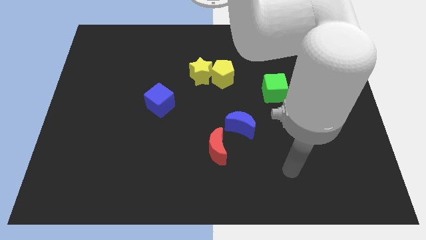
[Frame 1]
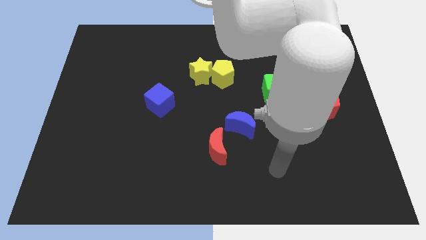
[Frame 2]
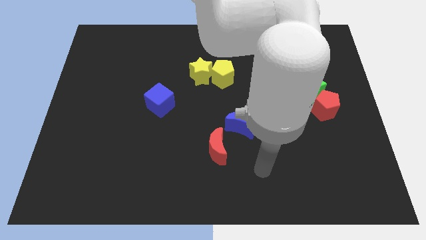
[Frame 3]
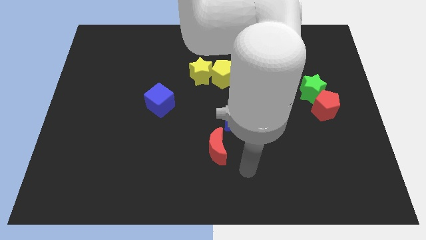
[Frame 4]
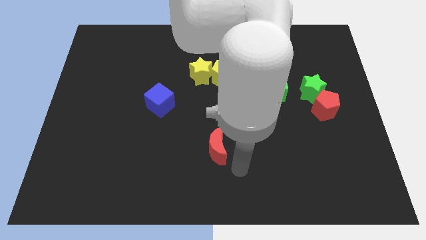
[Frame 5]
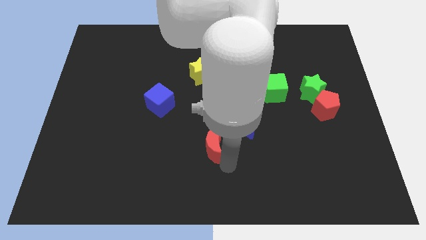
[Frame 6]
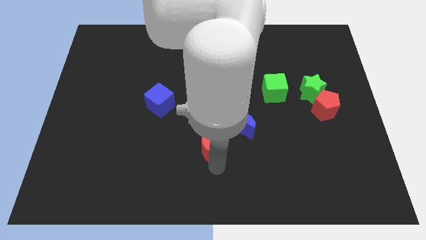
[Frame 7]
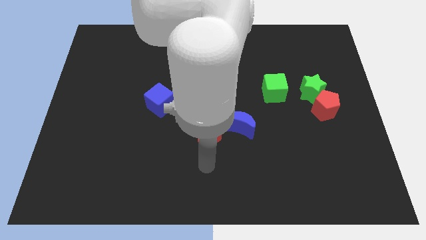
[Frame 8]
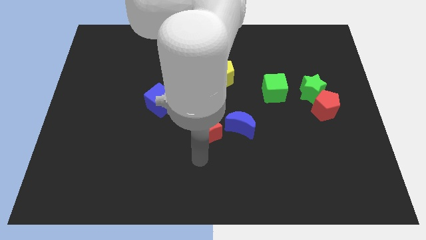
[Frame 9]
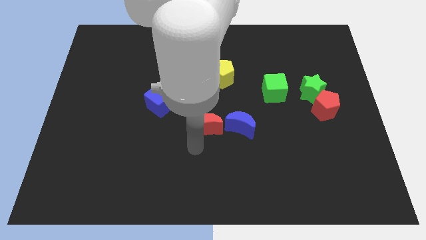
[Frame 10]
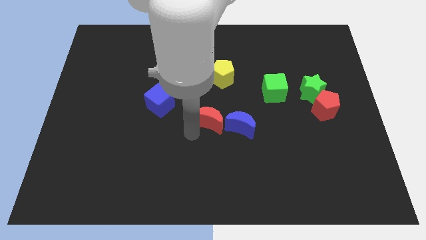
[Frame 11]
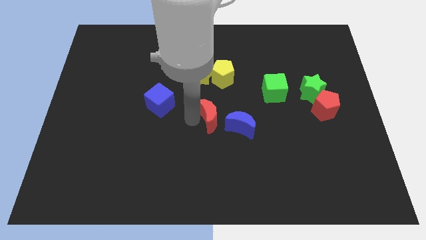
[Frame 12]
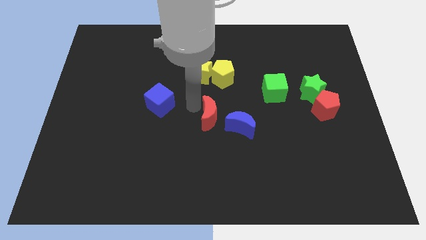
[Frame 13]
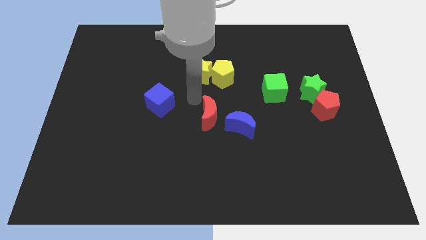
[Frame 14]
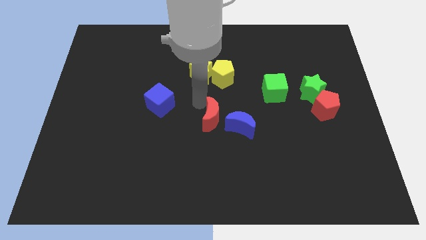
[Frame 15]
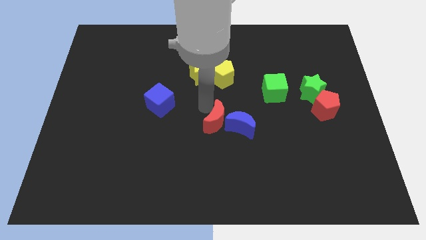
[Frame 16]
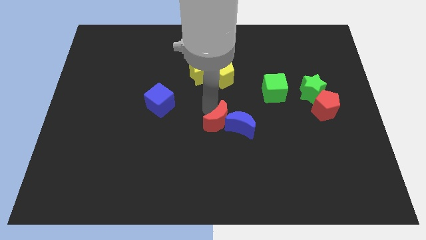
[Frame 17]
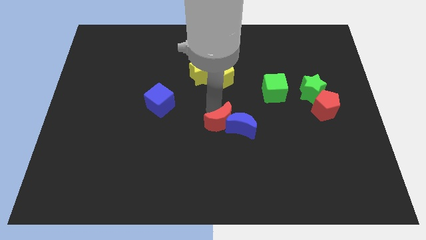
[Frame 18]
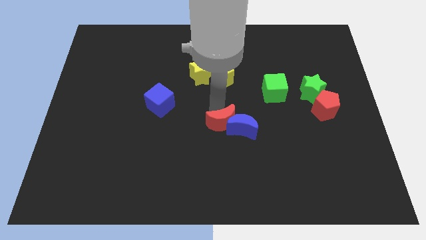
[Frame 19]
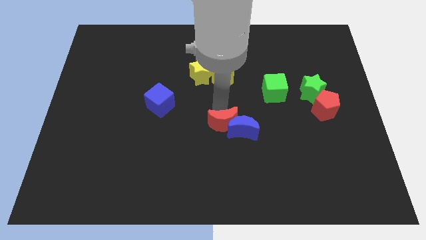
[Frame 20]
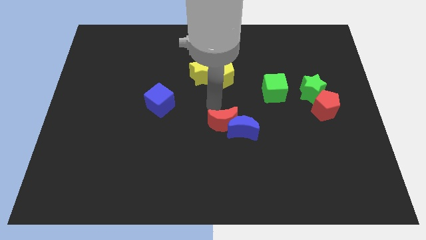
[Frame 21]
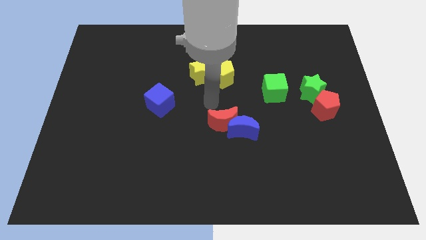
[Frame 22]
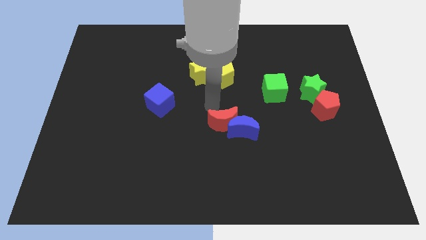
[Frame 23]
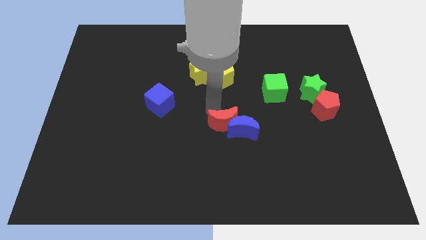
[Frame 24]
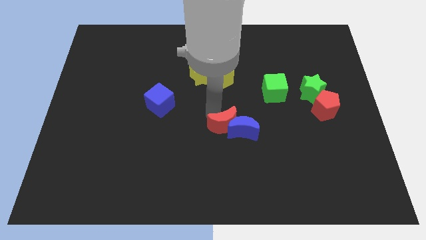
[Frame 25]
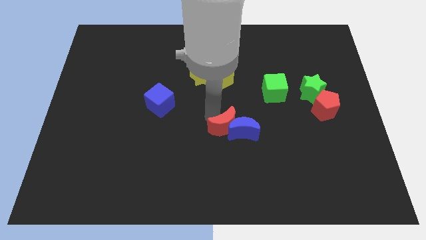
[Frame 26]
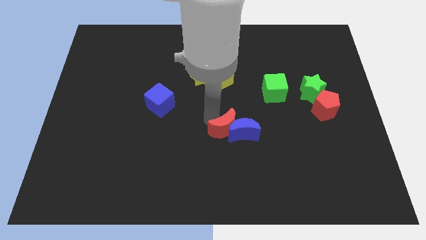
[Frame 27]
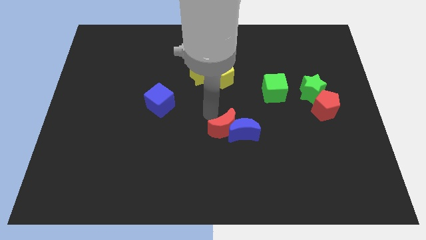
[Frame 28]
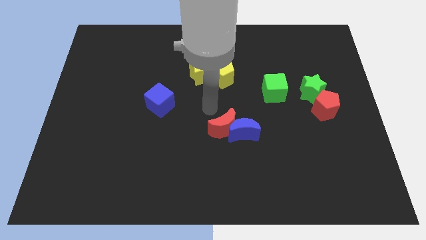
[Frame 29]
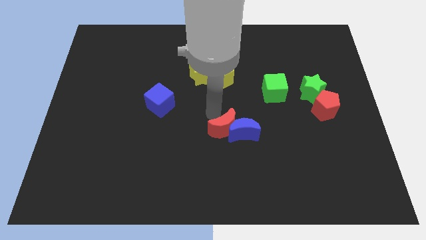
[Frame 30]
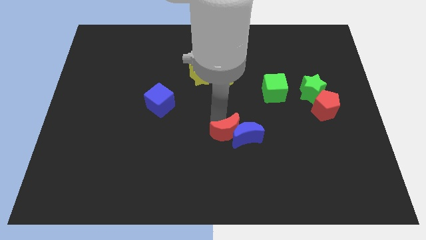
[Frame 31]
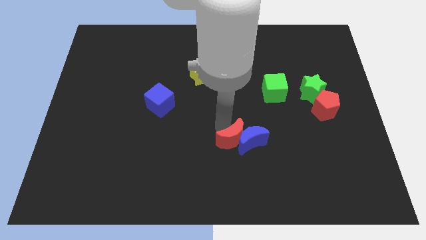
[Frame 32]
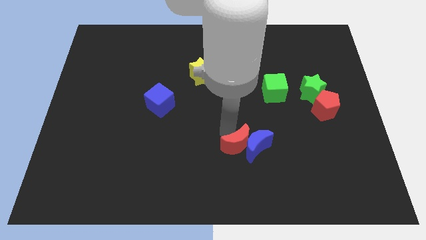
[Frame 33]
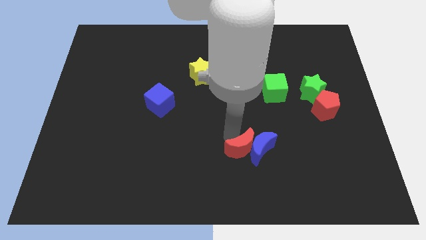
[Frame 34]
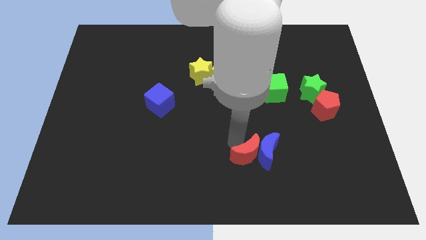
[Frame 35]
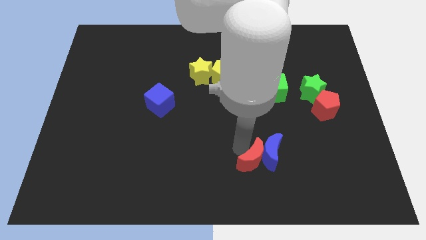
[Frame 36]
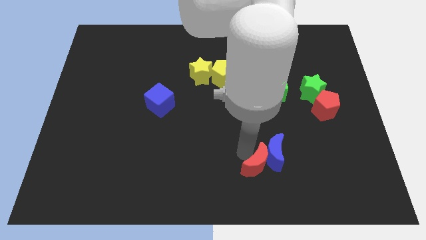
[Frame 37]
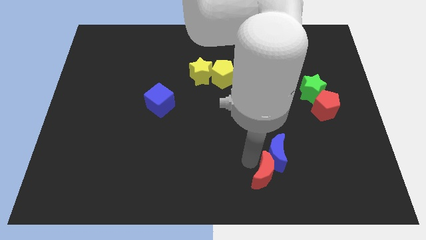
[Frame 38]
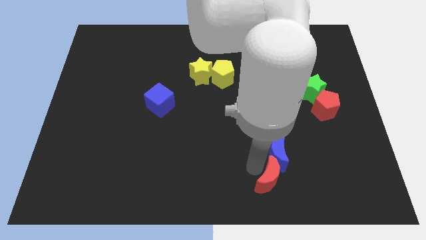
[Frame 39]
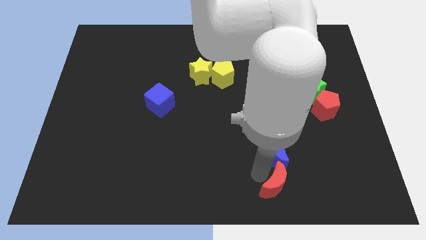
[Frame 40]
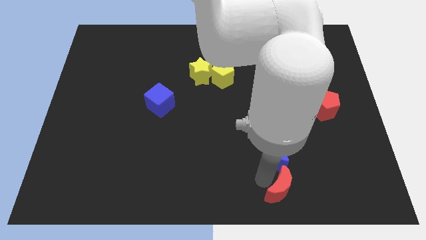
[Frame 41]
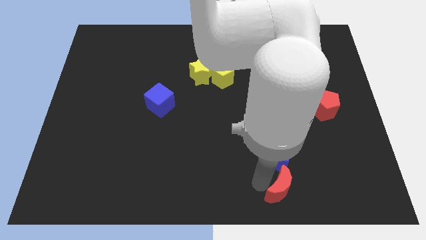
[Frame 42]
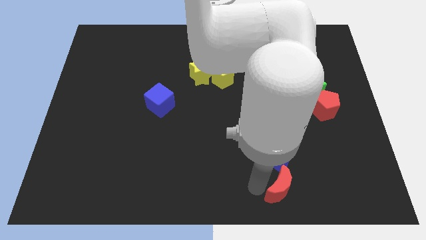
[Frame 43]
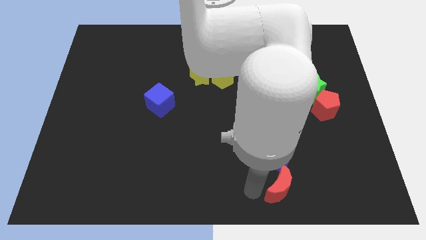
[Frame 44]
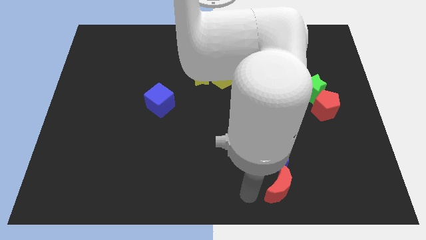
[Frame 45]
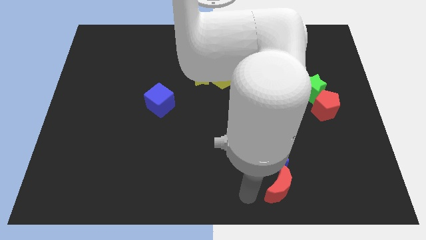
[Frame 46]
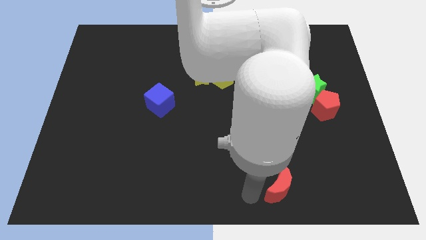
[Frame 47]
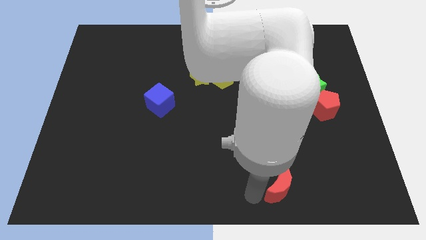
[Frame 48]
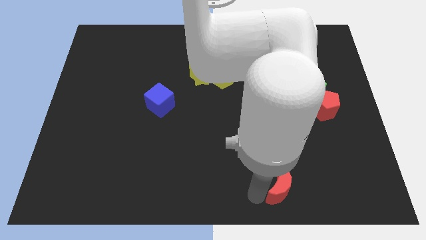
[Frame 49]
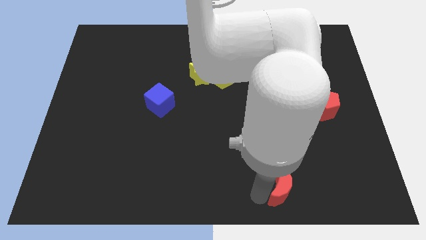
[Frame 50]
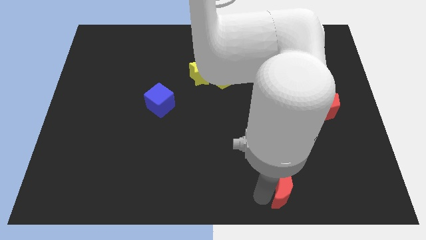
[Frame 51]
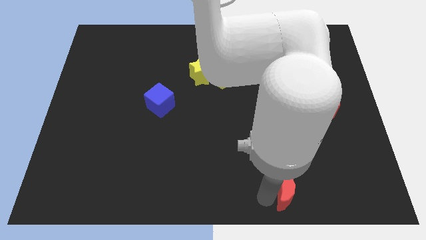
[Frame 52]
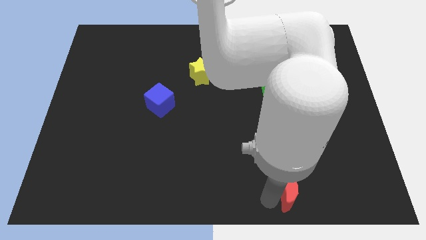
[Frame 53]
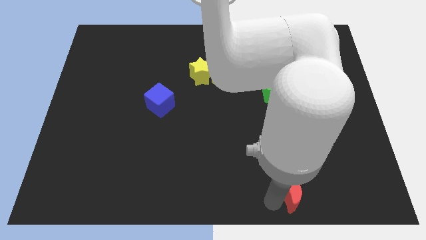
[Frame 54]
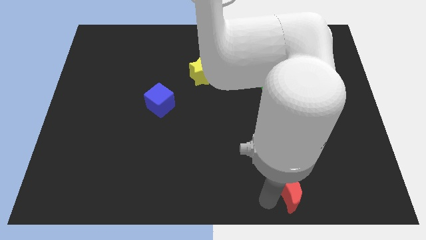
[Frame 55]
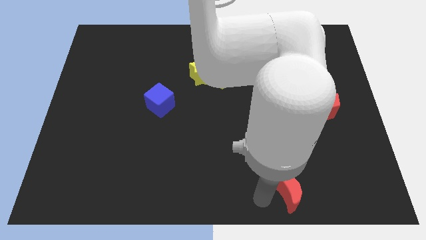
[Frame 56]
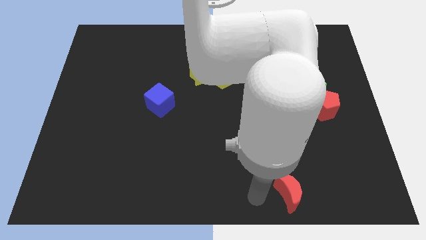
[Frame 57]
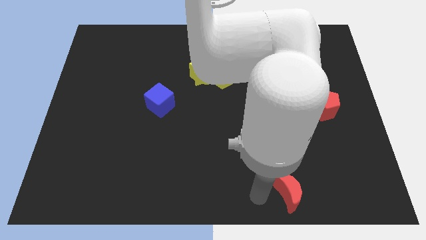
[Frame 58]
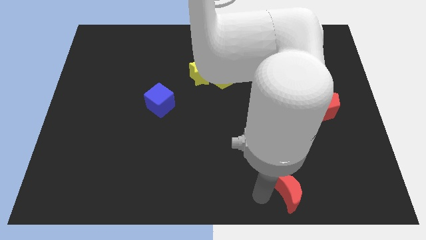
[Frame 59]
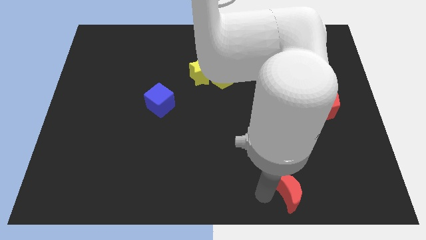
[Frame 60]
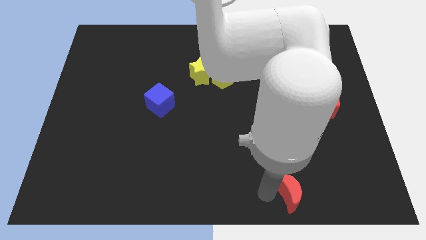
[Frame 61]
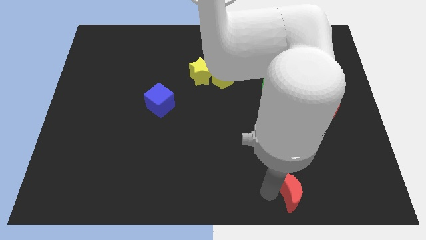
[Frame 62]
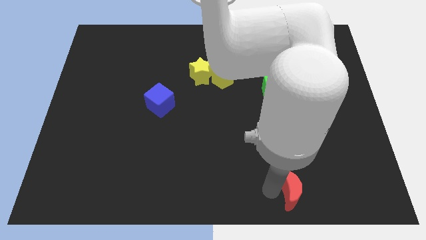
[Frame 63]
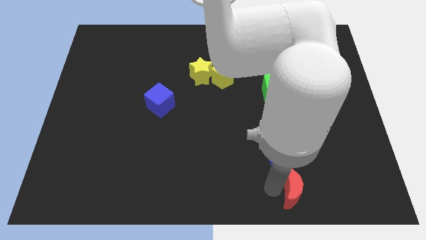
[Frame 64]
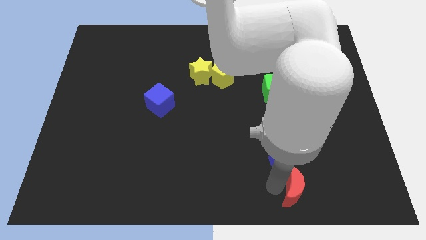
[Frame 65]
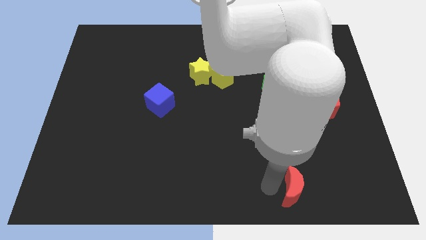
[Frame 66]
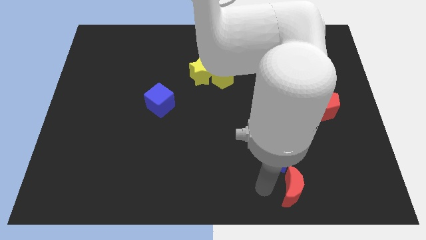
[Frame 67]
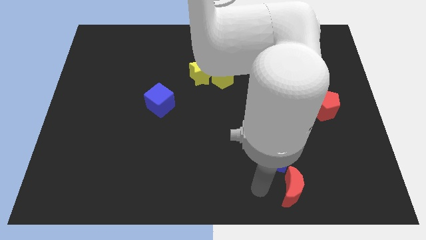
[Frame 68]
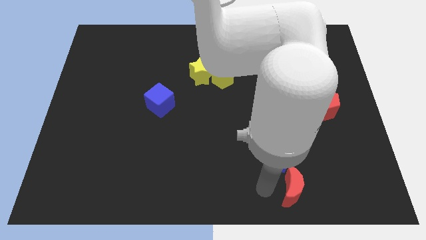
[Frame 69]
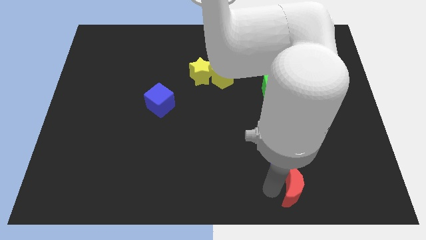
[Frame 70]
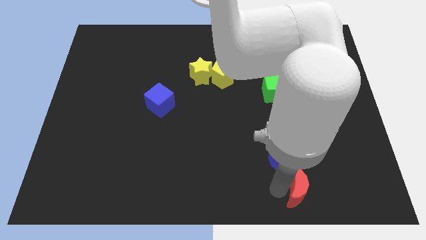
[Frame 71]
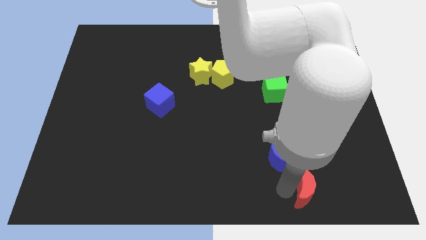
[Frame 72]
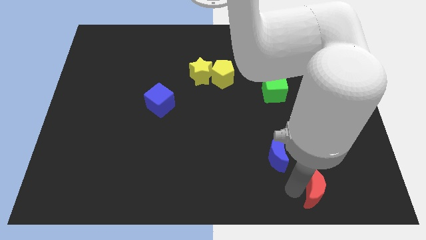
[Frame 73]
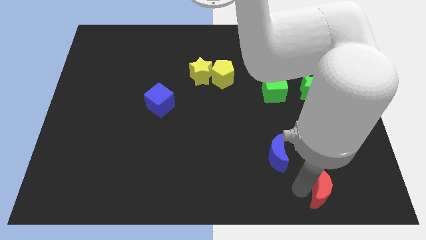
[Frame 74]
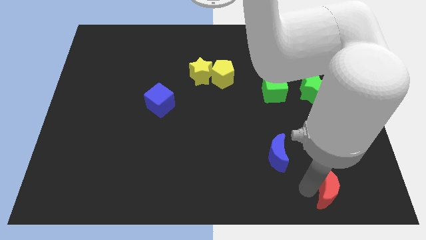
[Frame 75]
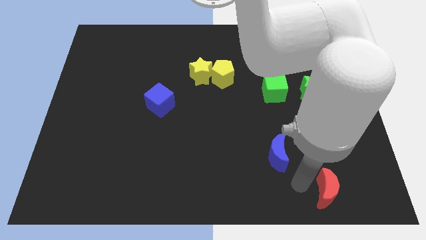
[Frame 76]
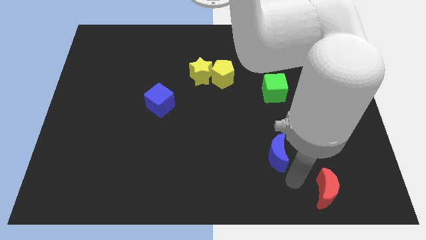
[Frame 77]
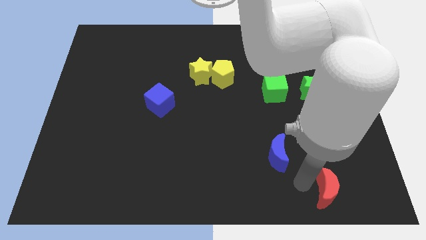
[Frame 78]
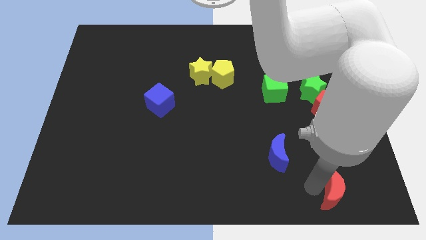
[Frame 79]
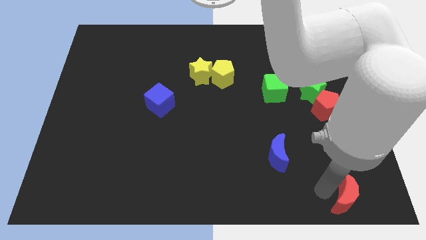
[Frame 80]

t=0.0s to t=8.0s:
slide the red moon to the lower right corner
